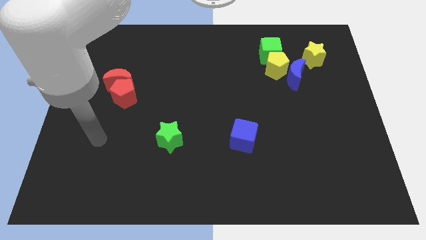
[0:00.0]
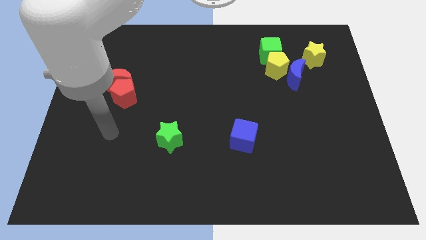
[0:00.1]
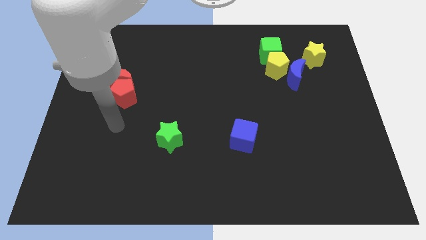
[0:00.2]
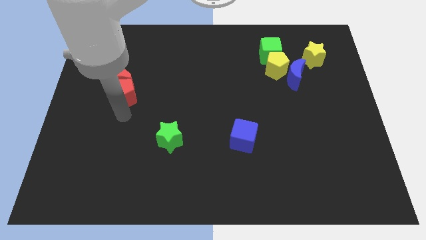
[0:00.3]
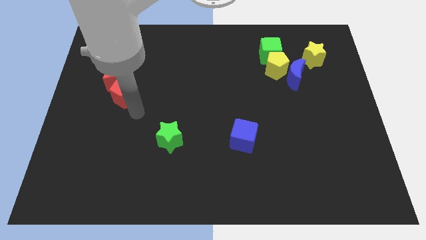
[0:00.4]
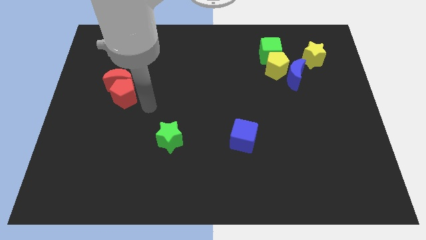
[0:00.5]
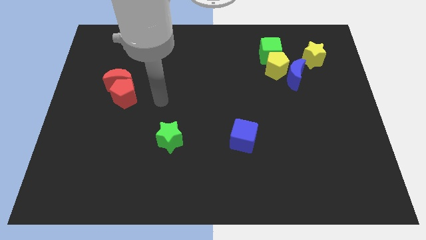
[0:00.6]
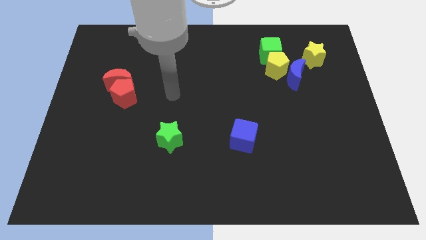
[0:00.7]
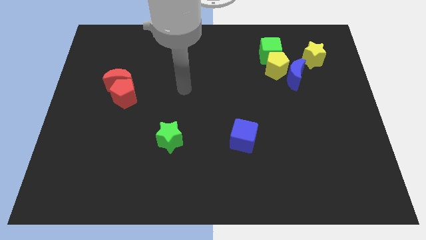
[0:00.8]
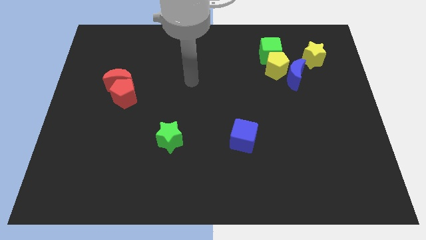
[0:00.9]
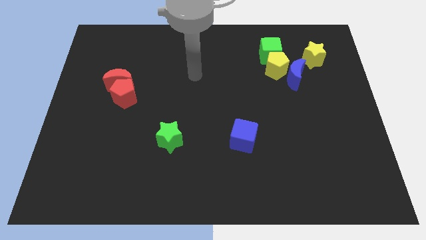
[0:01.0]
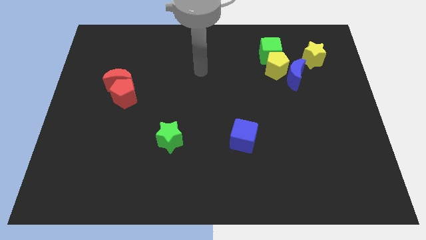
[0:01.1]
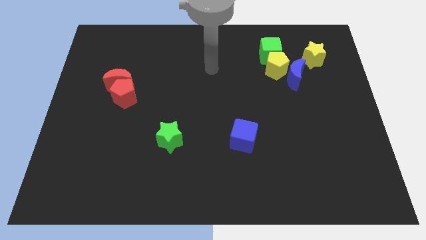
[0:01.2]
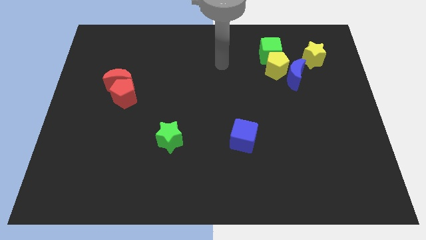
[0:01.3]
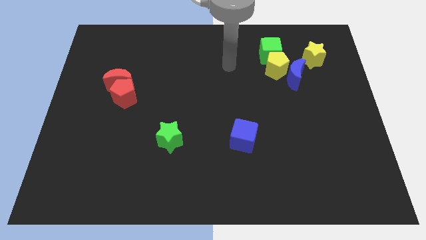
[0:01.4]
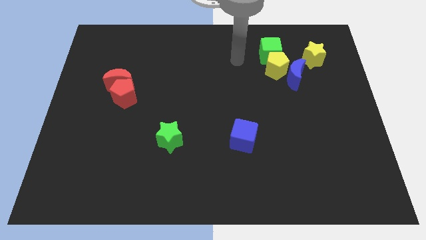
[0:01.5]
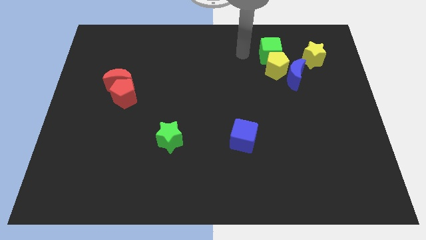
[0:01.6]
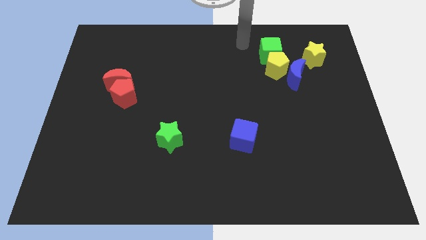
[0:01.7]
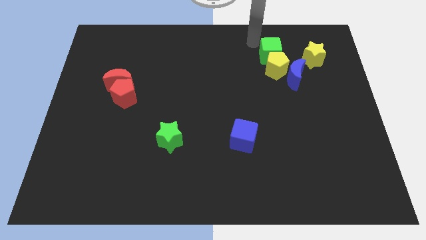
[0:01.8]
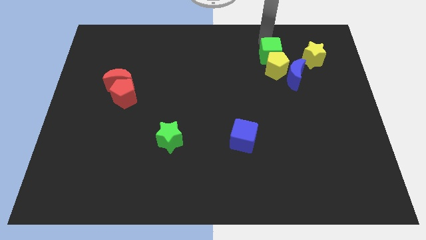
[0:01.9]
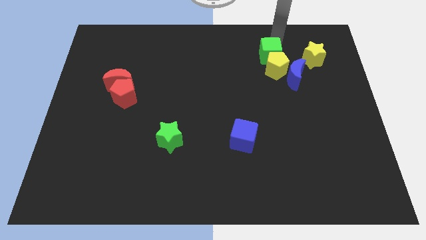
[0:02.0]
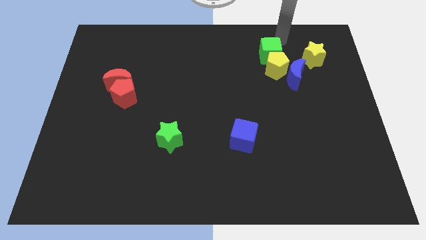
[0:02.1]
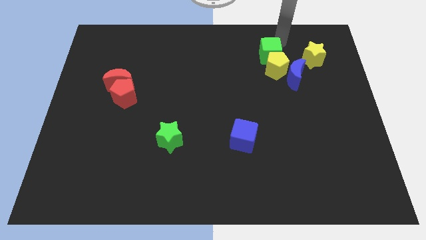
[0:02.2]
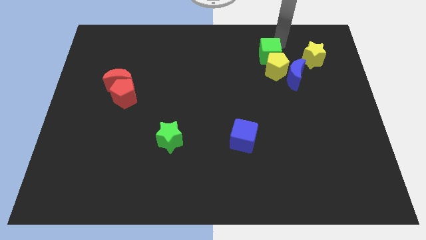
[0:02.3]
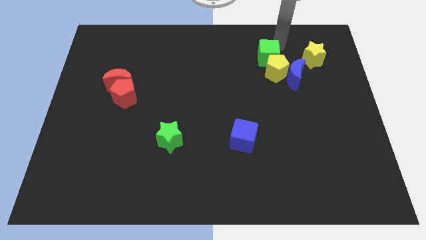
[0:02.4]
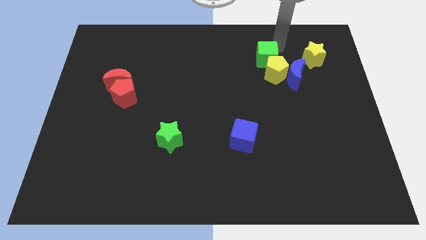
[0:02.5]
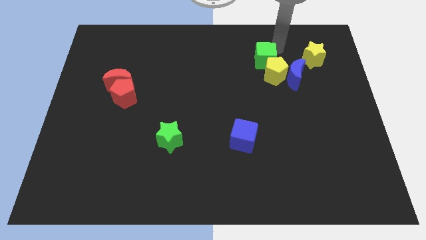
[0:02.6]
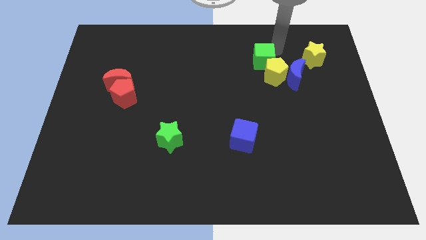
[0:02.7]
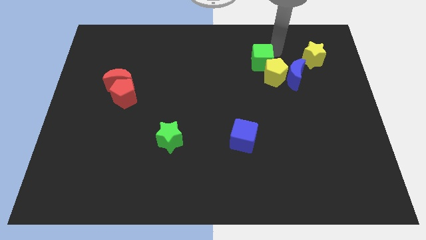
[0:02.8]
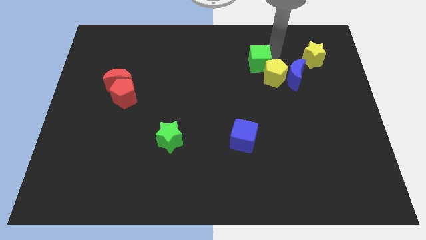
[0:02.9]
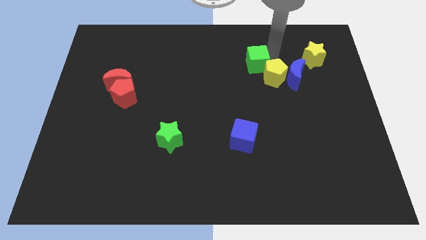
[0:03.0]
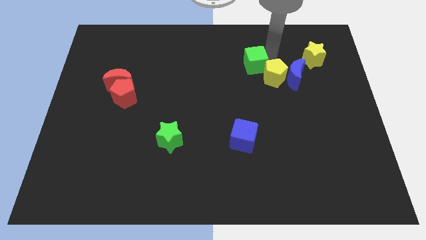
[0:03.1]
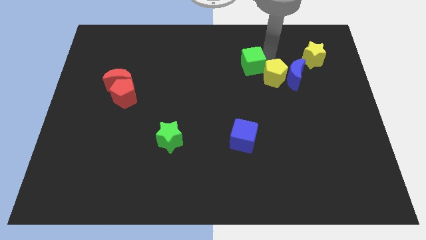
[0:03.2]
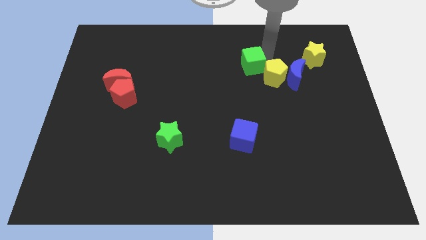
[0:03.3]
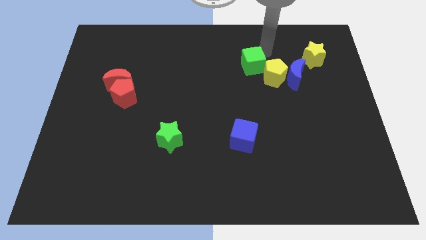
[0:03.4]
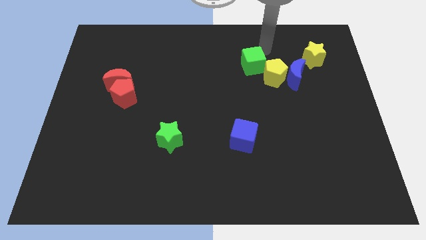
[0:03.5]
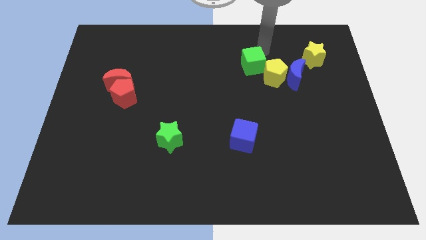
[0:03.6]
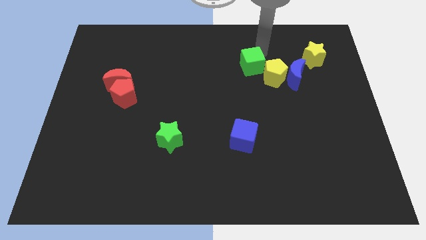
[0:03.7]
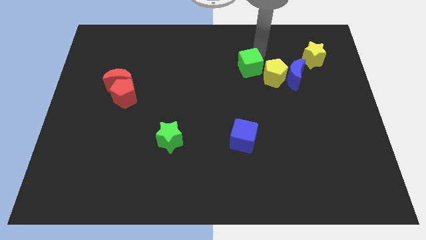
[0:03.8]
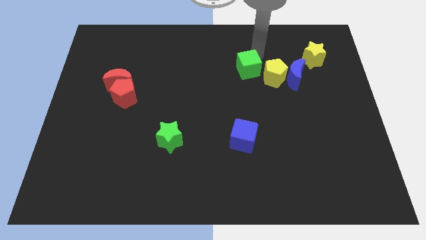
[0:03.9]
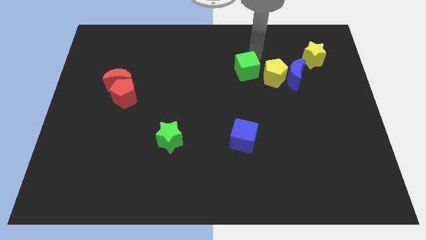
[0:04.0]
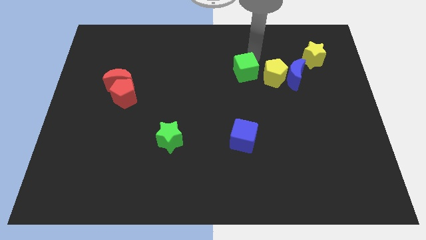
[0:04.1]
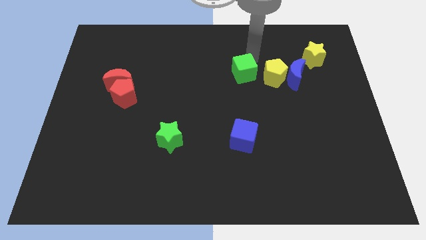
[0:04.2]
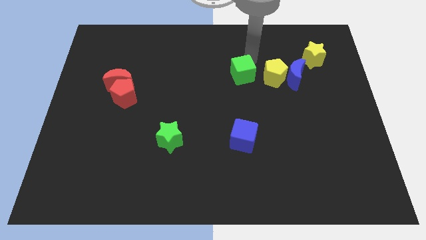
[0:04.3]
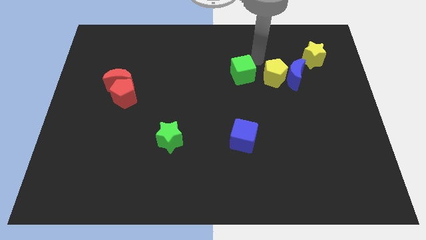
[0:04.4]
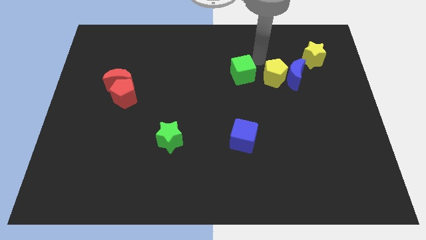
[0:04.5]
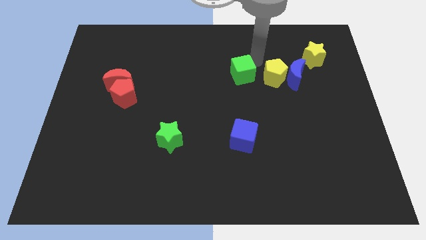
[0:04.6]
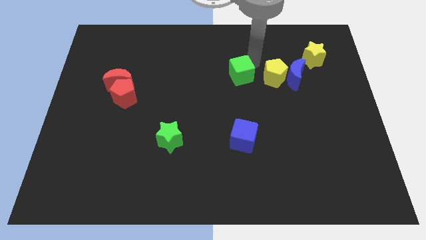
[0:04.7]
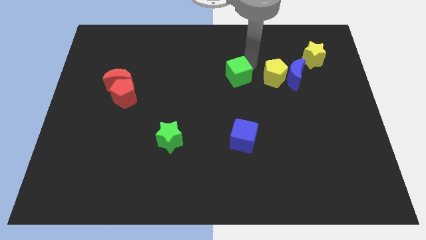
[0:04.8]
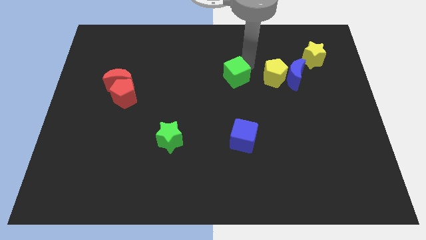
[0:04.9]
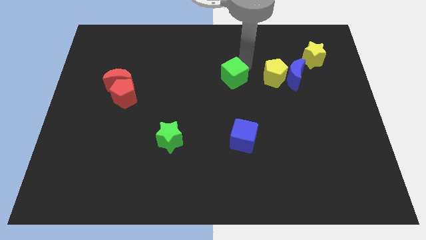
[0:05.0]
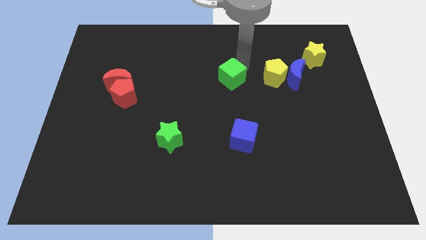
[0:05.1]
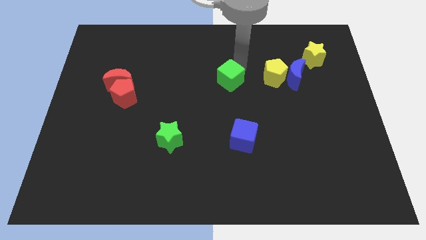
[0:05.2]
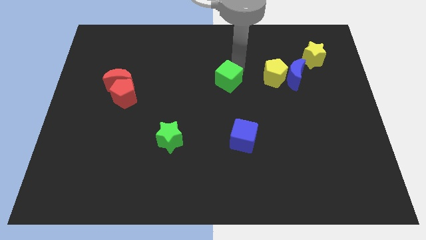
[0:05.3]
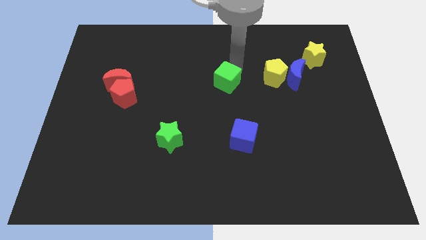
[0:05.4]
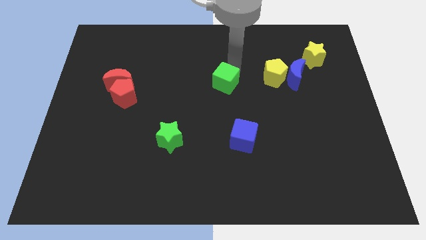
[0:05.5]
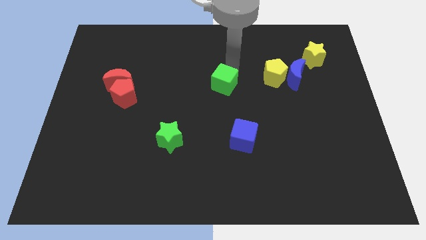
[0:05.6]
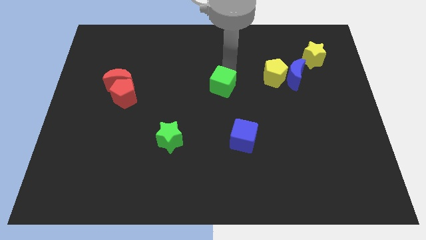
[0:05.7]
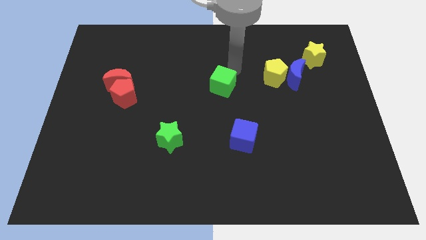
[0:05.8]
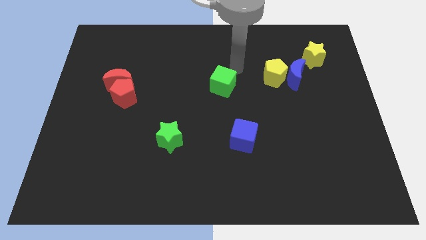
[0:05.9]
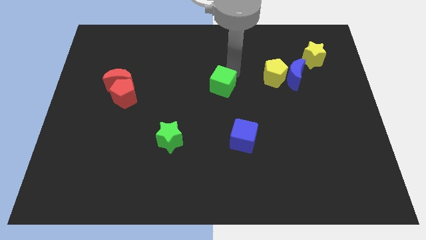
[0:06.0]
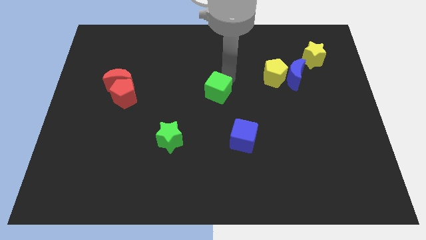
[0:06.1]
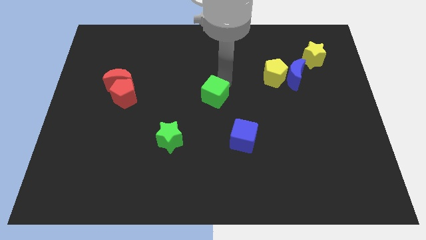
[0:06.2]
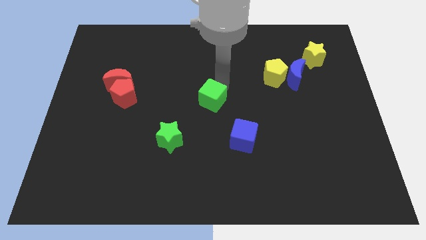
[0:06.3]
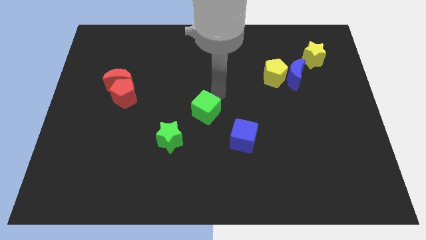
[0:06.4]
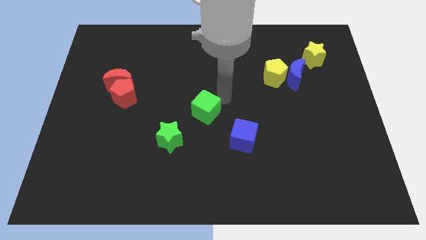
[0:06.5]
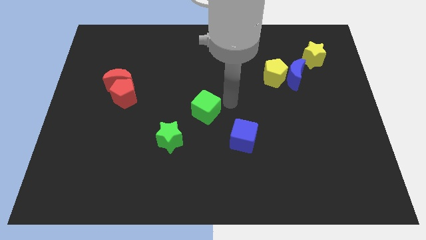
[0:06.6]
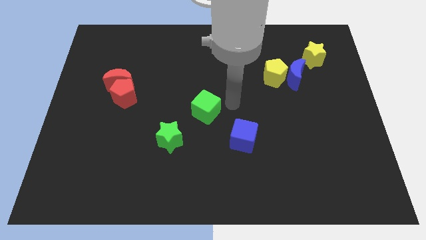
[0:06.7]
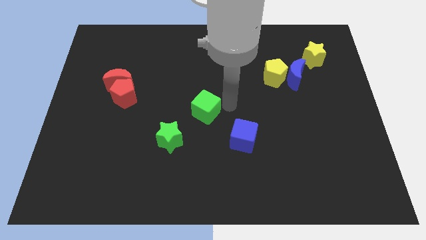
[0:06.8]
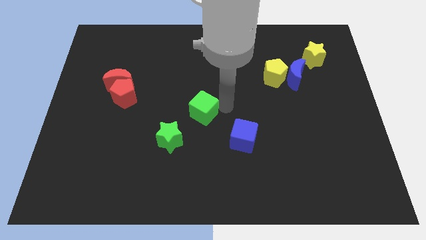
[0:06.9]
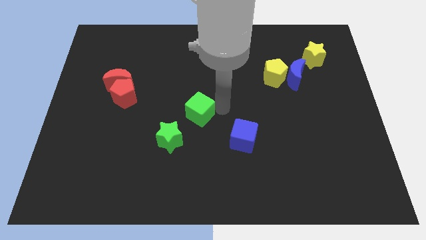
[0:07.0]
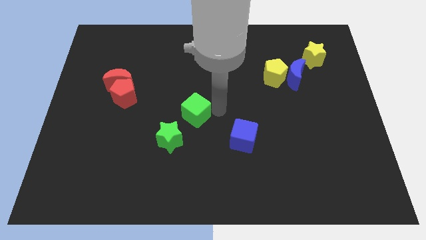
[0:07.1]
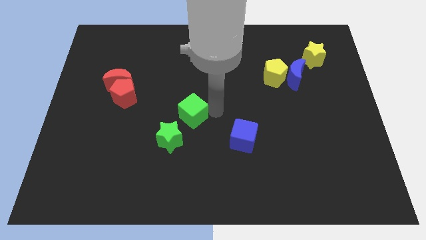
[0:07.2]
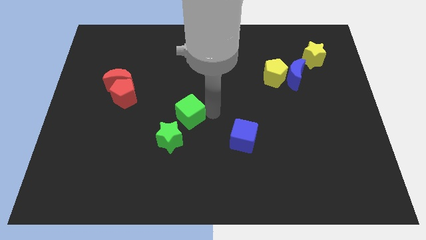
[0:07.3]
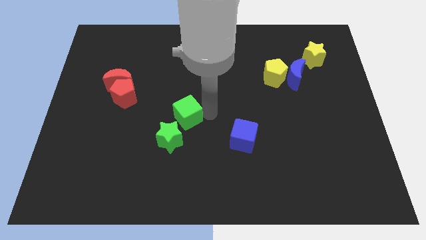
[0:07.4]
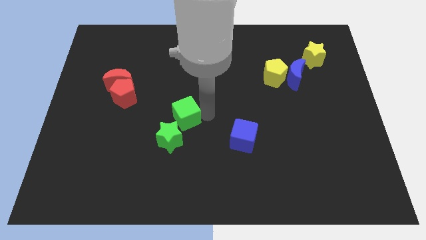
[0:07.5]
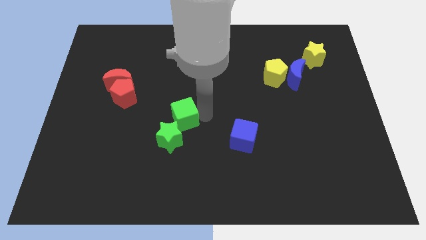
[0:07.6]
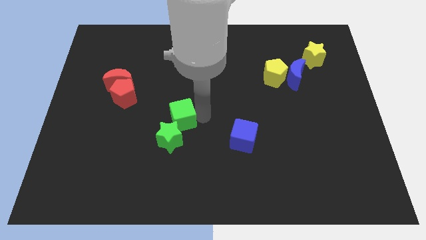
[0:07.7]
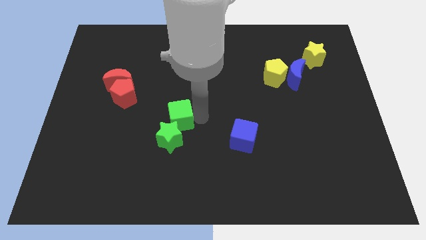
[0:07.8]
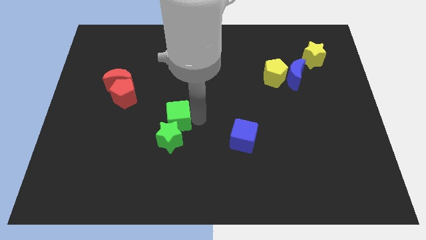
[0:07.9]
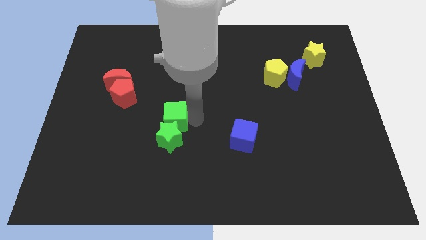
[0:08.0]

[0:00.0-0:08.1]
move the green cube to the top left of the green star
